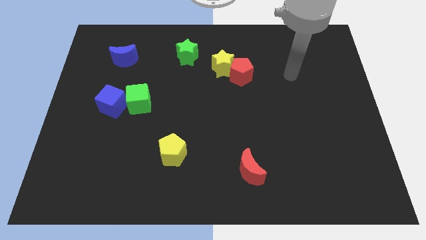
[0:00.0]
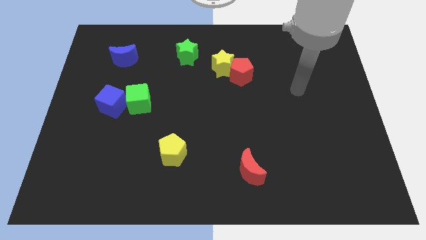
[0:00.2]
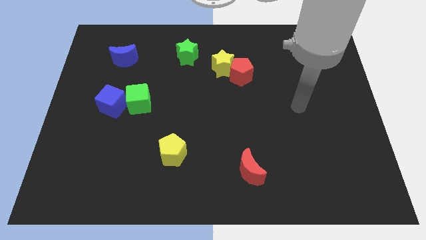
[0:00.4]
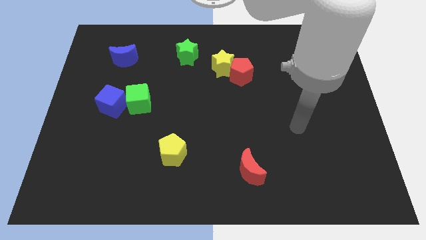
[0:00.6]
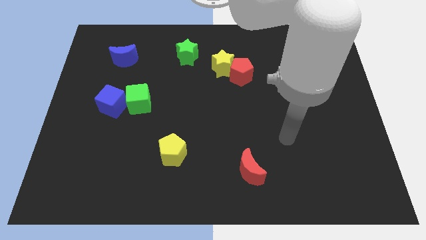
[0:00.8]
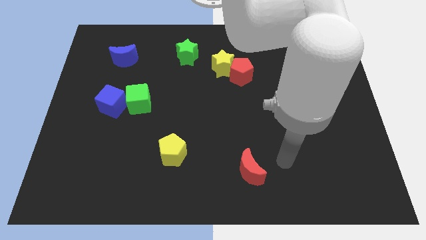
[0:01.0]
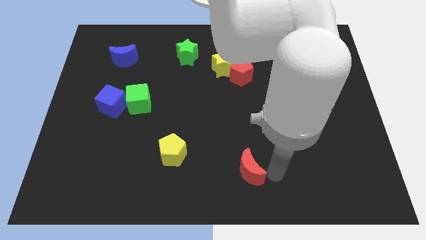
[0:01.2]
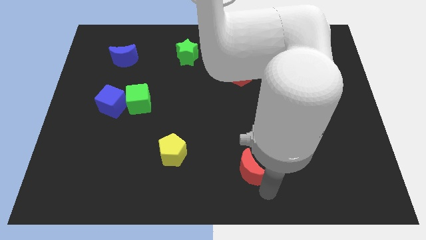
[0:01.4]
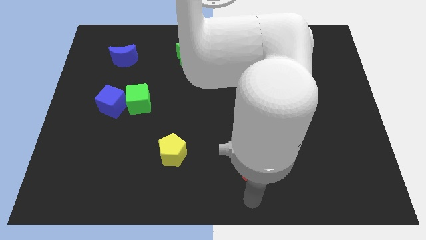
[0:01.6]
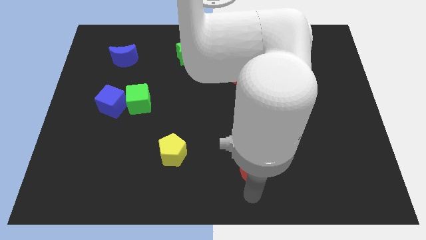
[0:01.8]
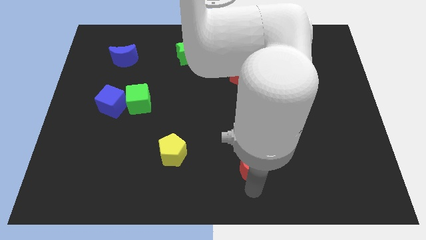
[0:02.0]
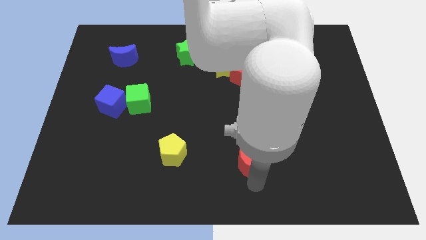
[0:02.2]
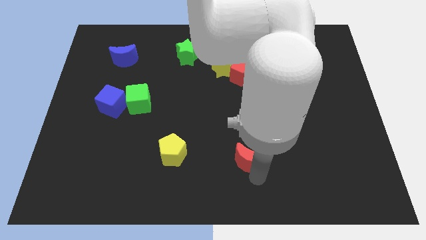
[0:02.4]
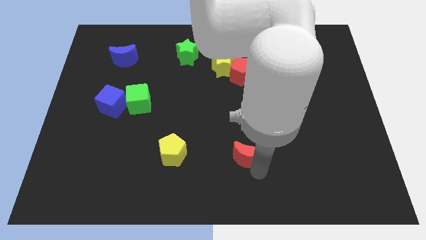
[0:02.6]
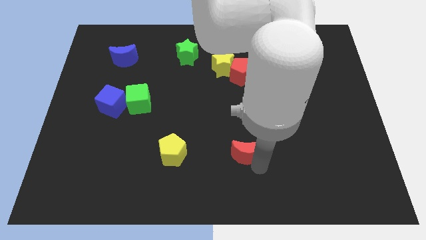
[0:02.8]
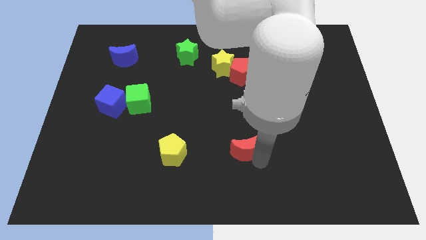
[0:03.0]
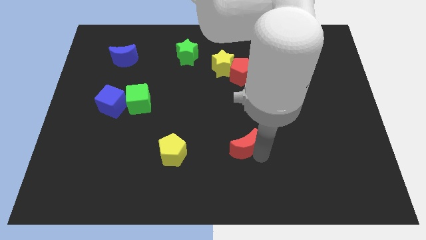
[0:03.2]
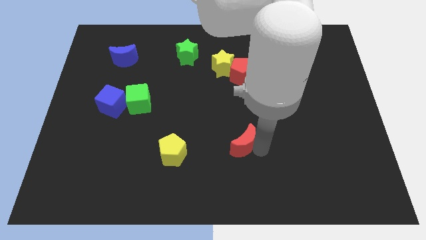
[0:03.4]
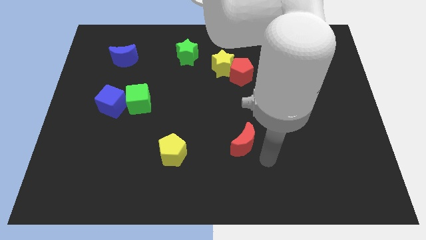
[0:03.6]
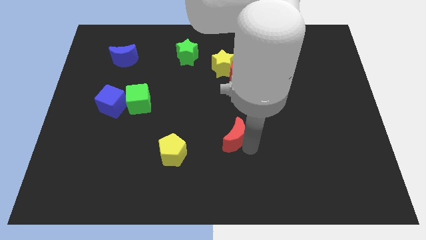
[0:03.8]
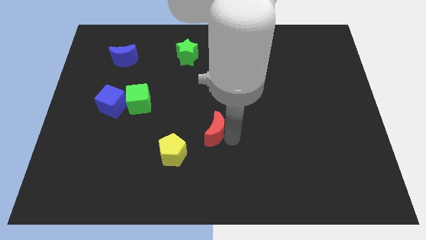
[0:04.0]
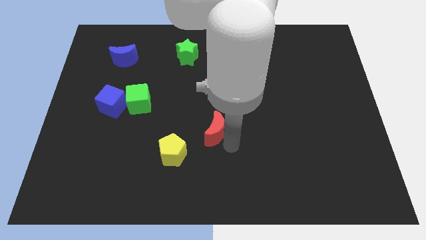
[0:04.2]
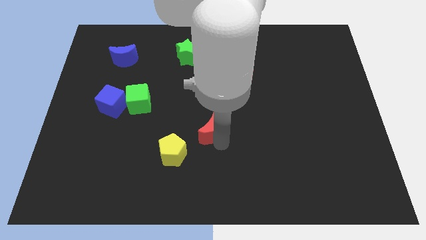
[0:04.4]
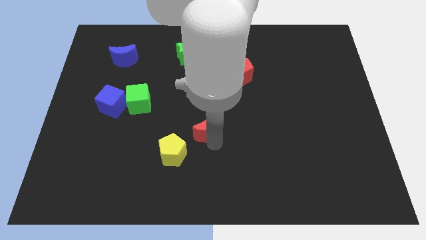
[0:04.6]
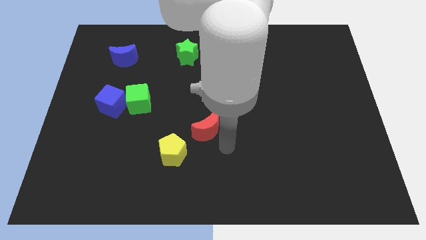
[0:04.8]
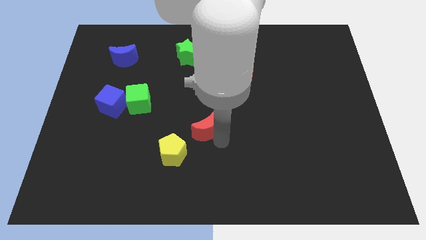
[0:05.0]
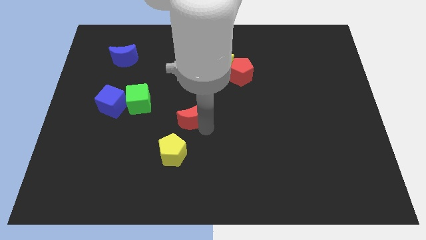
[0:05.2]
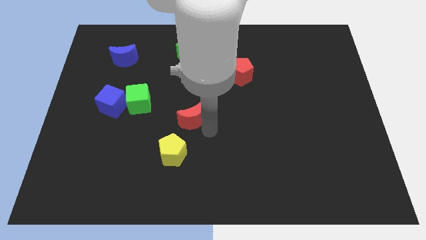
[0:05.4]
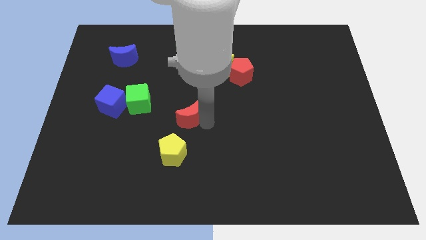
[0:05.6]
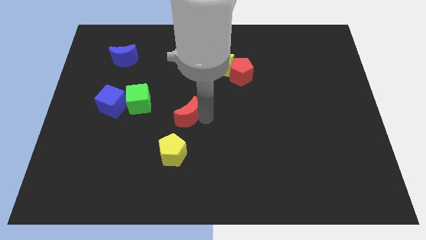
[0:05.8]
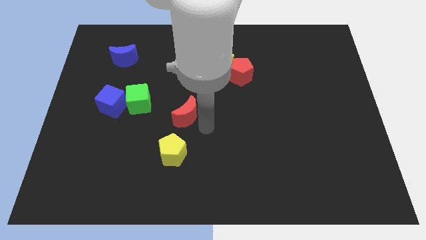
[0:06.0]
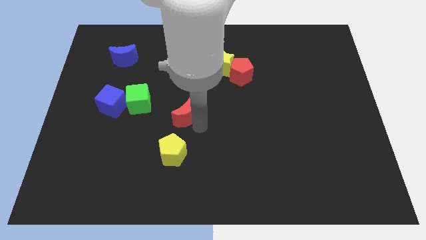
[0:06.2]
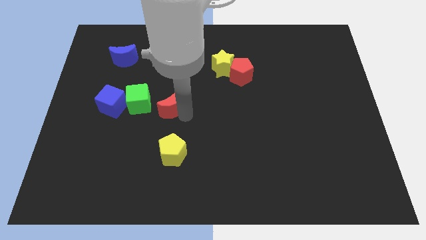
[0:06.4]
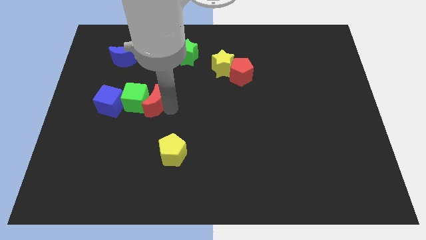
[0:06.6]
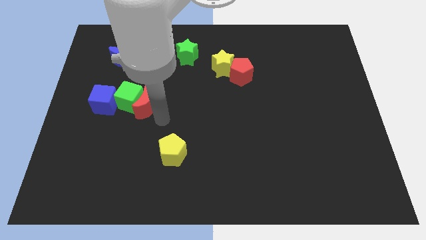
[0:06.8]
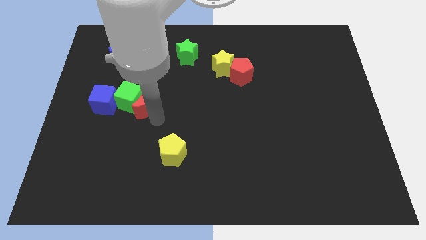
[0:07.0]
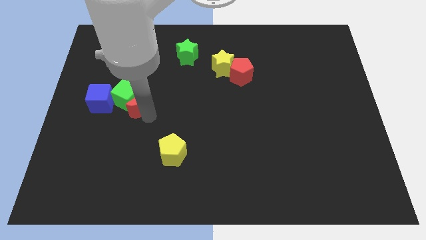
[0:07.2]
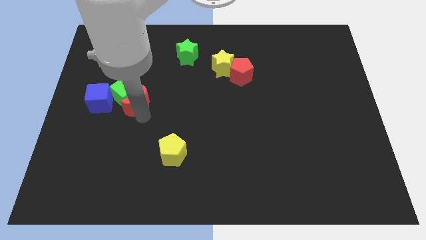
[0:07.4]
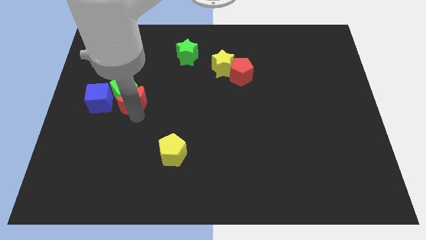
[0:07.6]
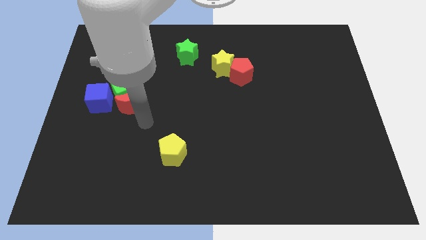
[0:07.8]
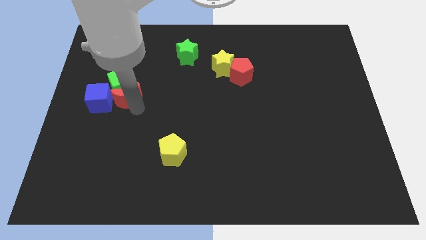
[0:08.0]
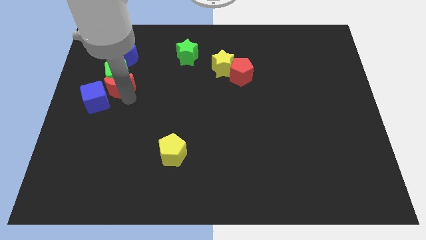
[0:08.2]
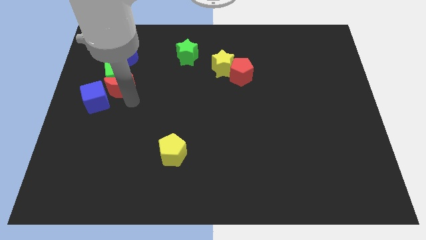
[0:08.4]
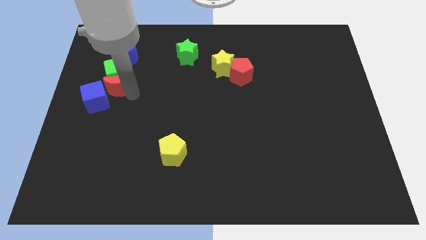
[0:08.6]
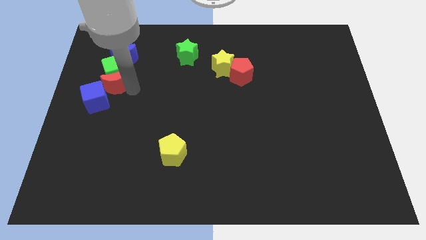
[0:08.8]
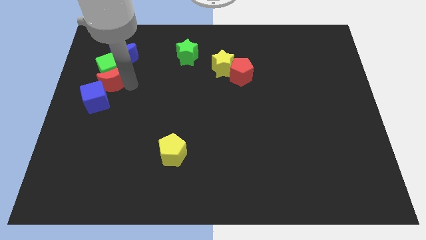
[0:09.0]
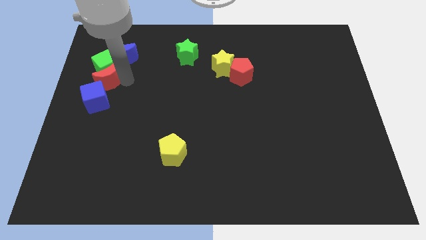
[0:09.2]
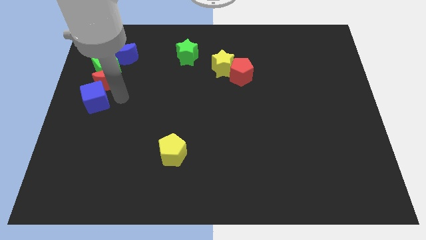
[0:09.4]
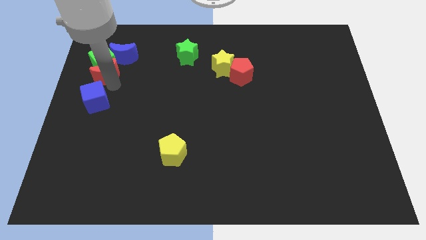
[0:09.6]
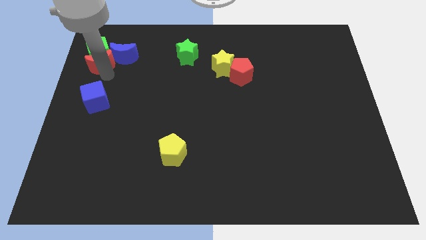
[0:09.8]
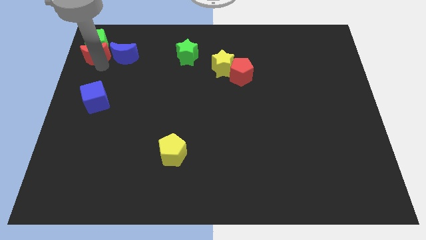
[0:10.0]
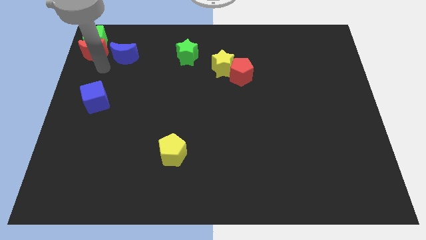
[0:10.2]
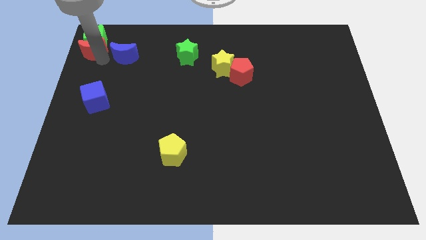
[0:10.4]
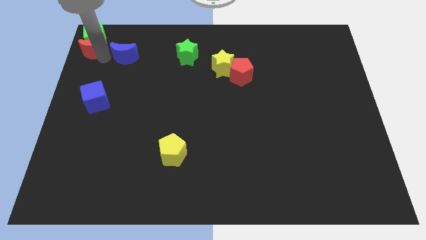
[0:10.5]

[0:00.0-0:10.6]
slide the red moon to the top left corner

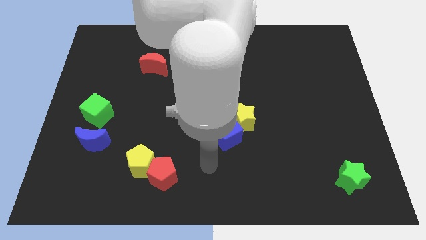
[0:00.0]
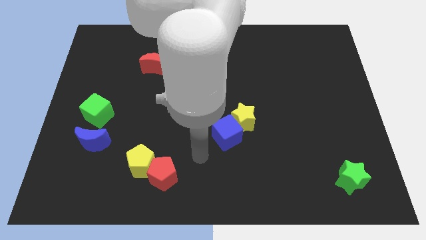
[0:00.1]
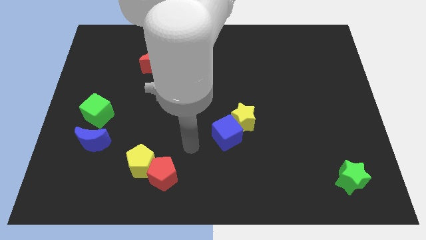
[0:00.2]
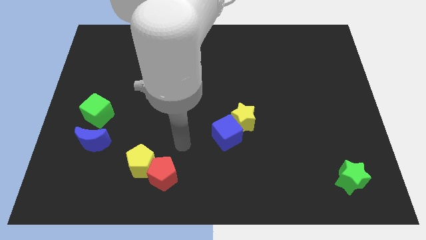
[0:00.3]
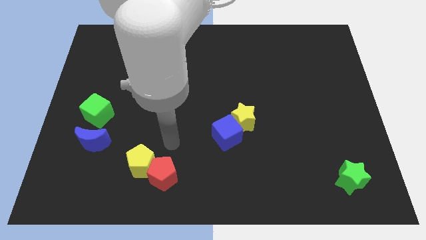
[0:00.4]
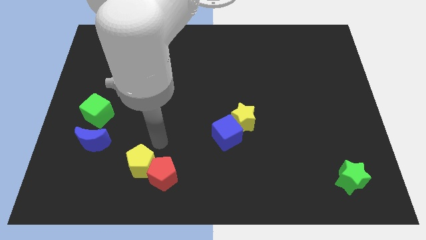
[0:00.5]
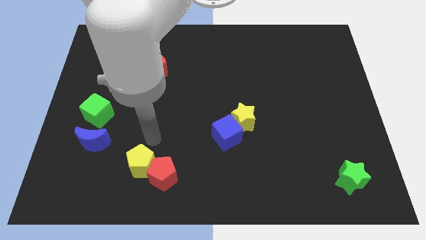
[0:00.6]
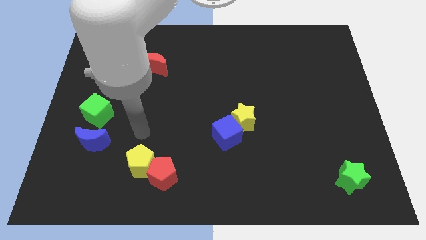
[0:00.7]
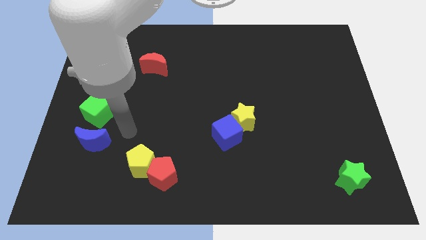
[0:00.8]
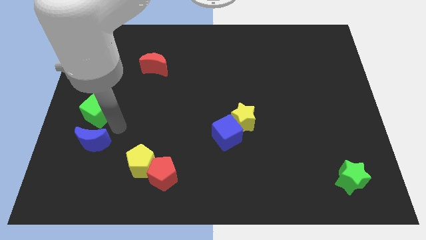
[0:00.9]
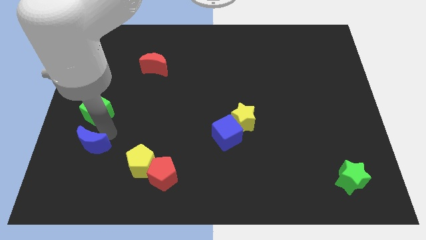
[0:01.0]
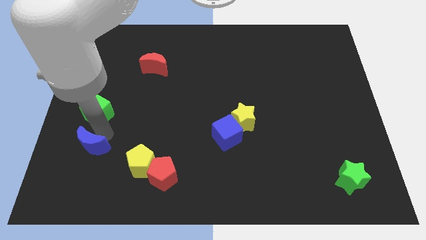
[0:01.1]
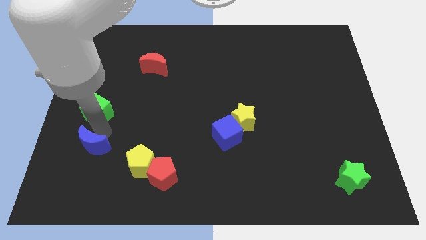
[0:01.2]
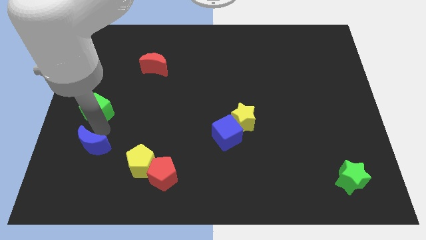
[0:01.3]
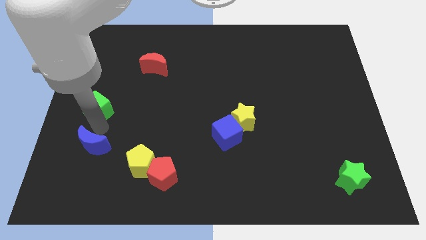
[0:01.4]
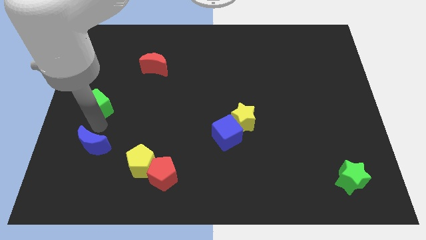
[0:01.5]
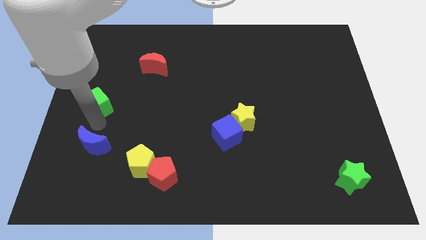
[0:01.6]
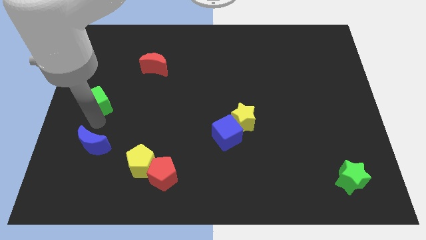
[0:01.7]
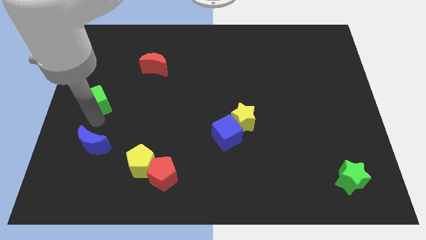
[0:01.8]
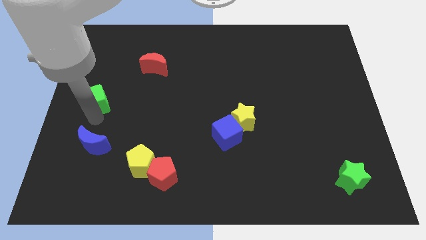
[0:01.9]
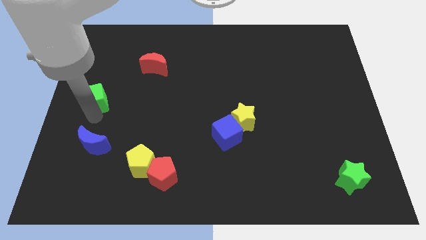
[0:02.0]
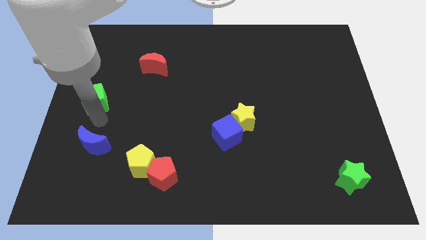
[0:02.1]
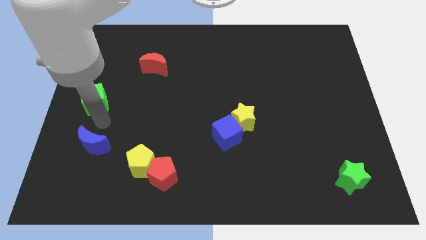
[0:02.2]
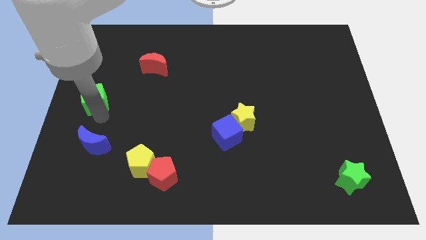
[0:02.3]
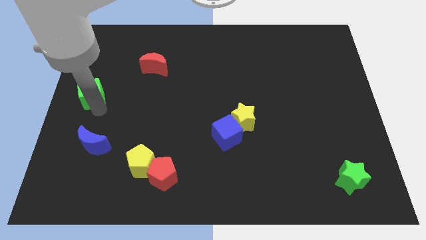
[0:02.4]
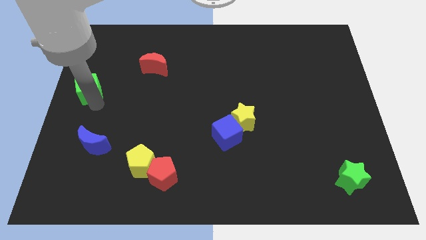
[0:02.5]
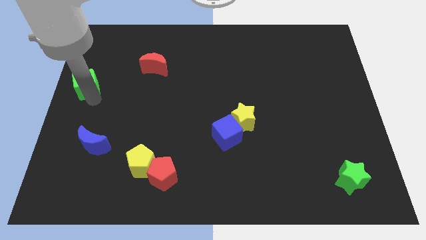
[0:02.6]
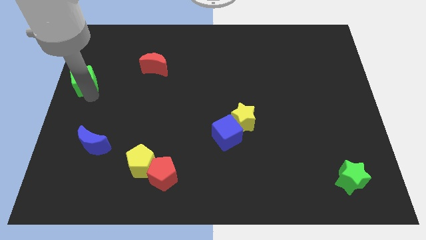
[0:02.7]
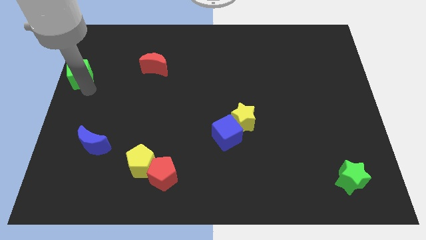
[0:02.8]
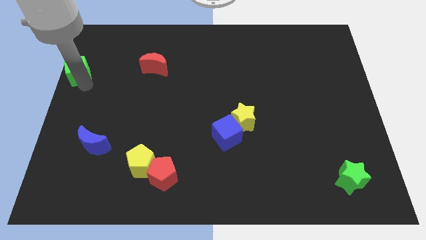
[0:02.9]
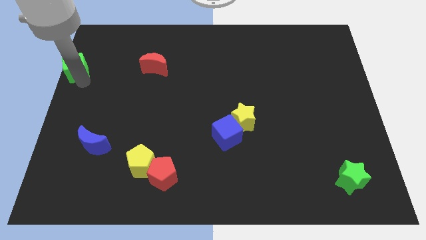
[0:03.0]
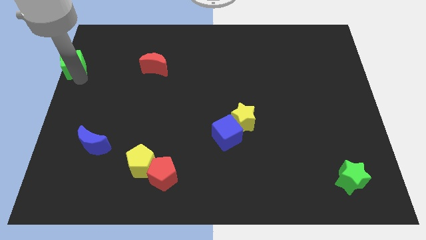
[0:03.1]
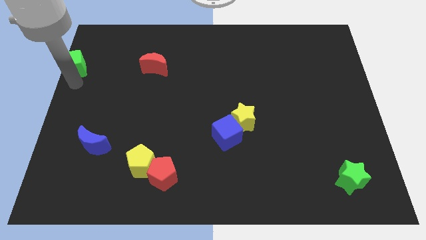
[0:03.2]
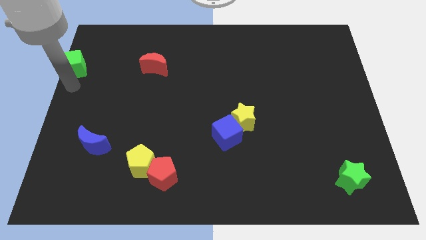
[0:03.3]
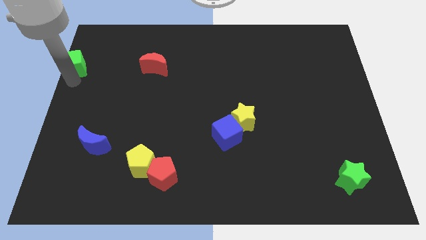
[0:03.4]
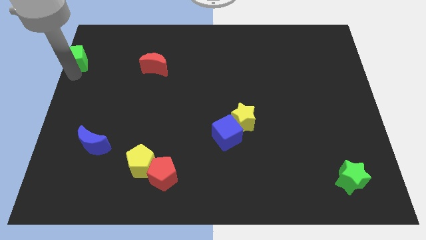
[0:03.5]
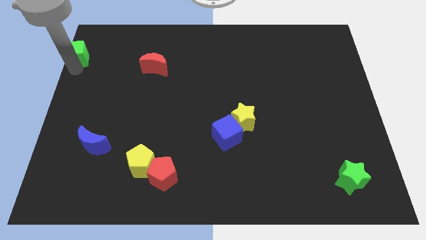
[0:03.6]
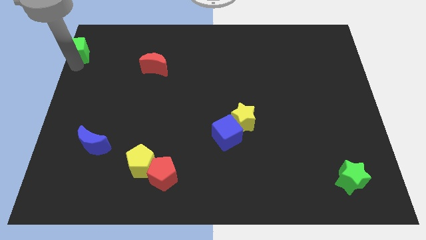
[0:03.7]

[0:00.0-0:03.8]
push the green cube to the top left corner
